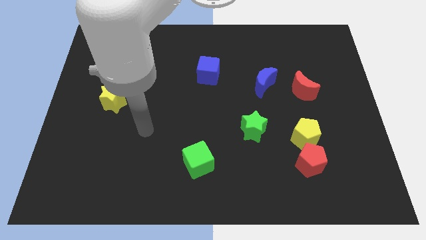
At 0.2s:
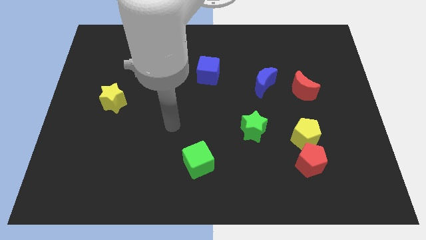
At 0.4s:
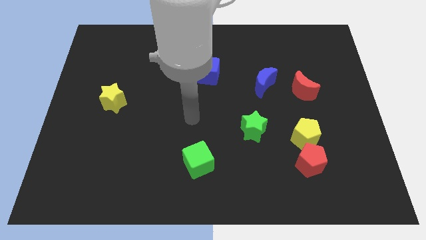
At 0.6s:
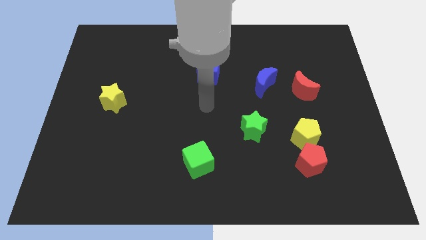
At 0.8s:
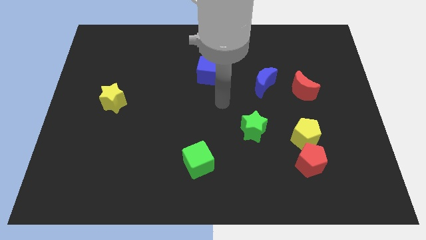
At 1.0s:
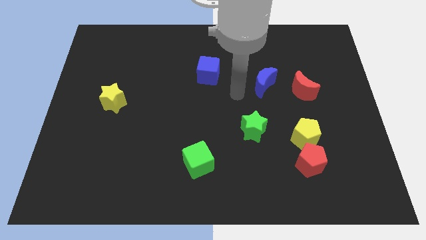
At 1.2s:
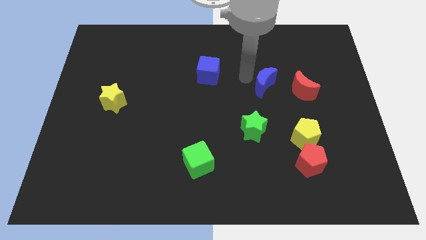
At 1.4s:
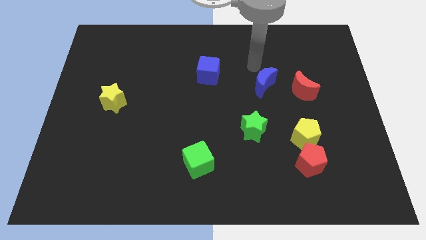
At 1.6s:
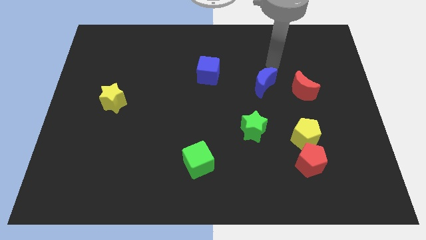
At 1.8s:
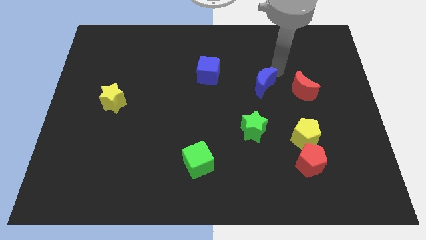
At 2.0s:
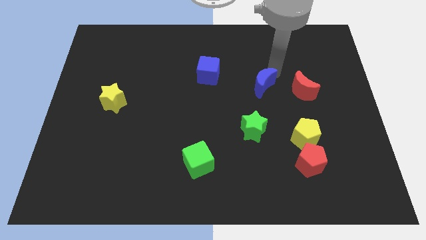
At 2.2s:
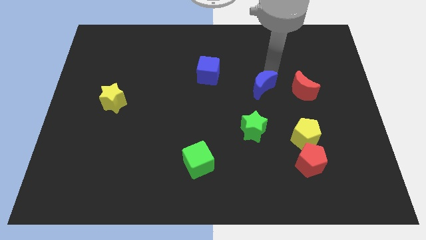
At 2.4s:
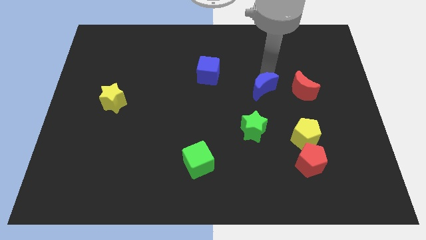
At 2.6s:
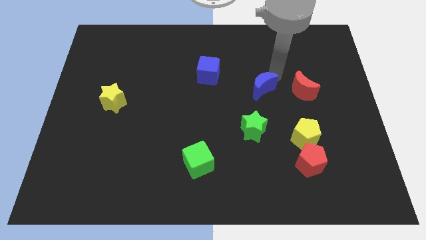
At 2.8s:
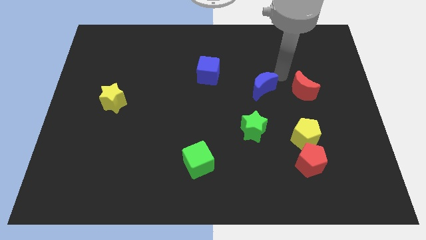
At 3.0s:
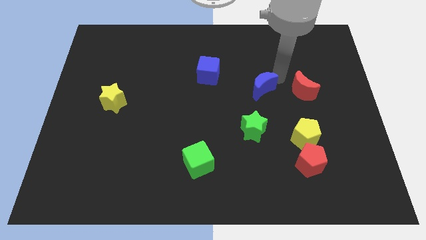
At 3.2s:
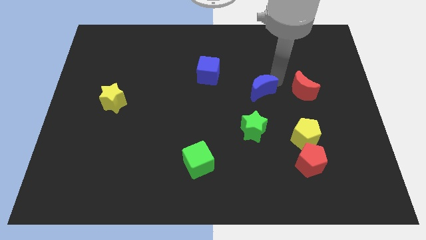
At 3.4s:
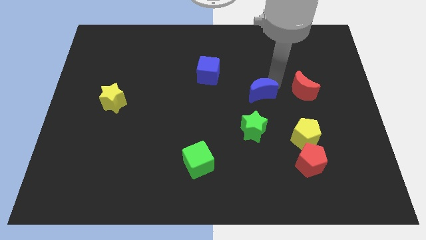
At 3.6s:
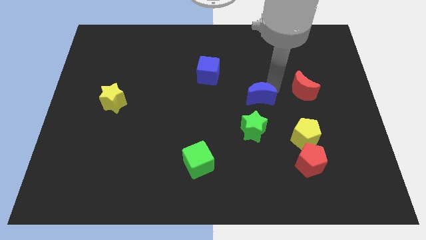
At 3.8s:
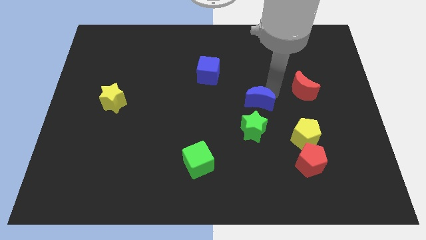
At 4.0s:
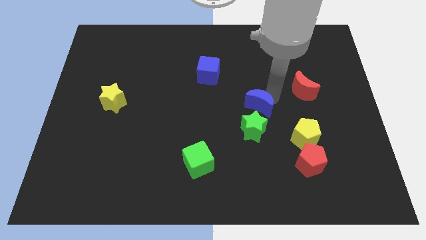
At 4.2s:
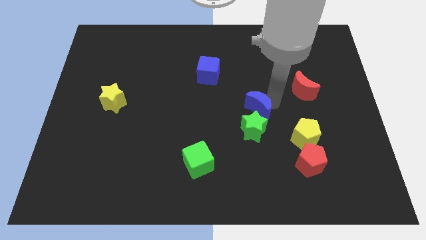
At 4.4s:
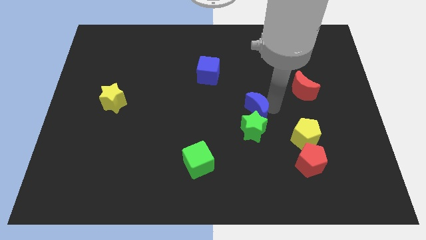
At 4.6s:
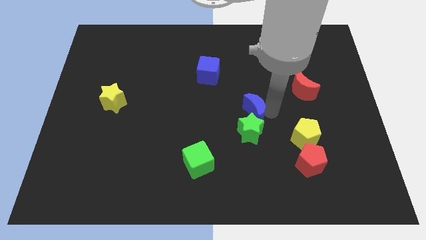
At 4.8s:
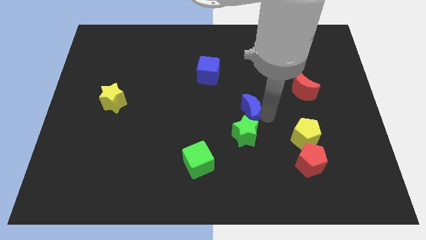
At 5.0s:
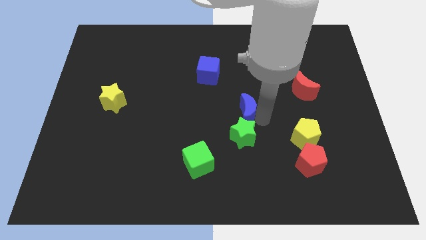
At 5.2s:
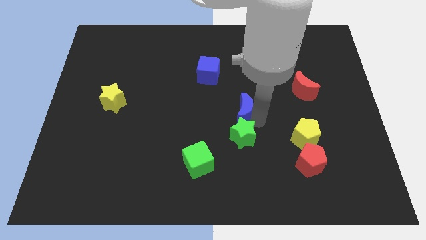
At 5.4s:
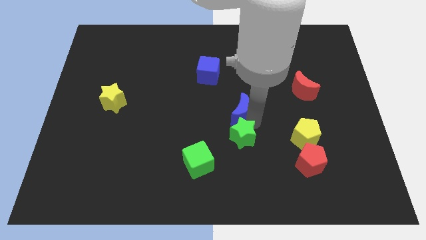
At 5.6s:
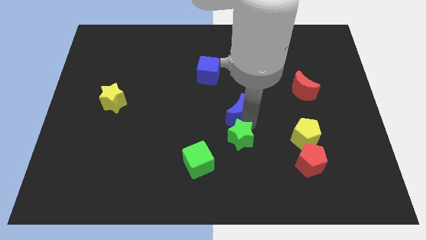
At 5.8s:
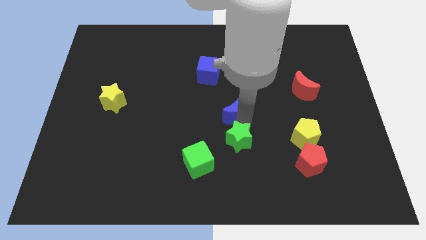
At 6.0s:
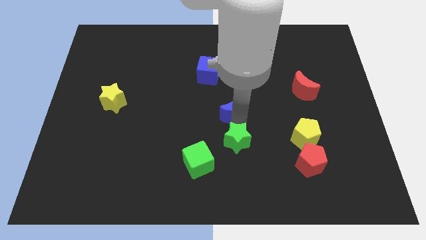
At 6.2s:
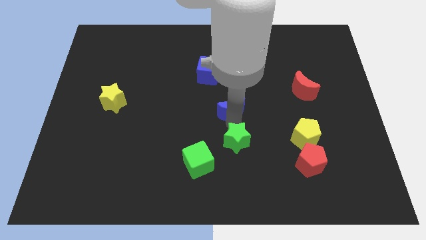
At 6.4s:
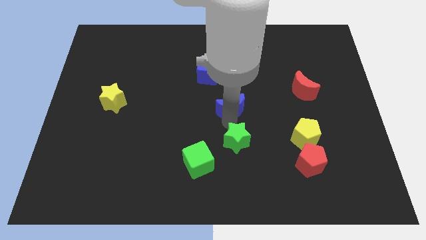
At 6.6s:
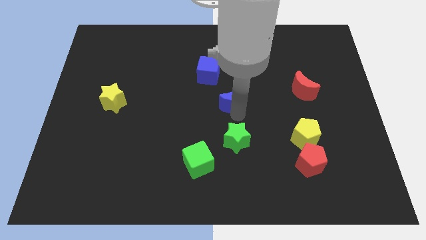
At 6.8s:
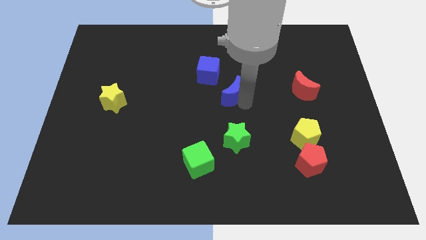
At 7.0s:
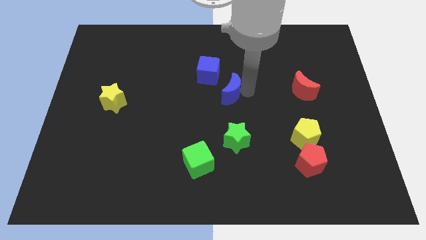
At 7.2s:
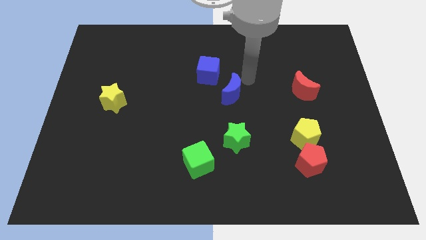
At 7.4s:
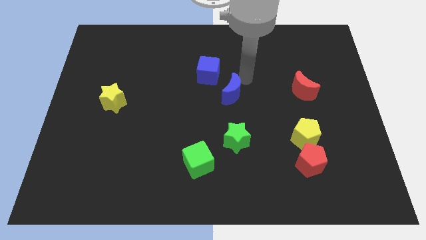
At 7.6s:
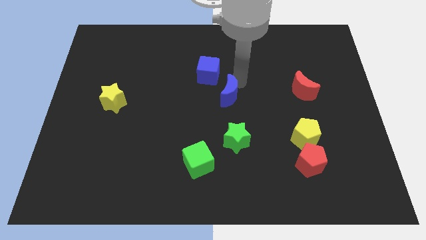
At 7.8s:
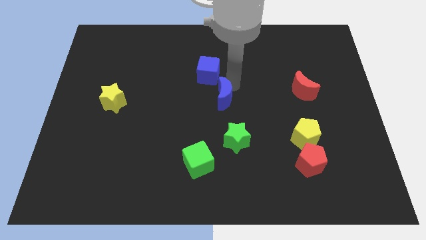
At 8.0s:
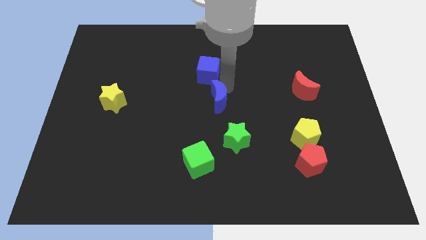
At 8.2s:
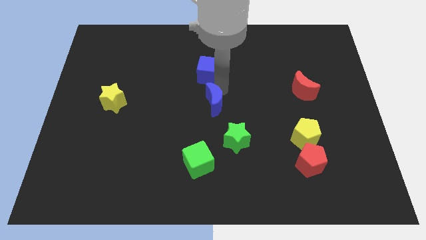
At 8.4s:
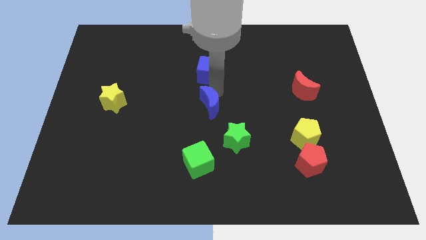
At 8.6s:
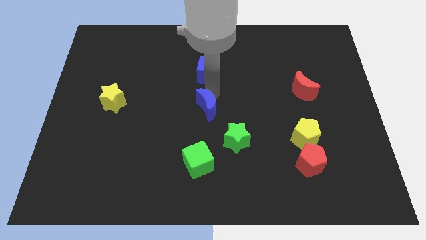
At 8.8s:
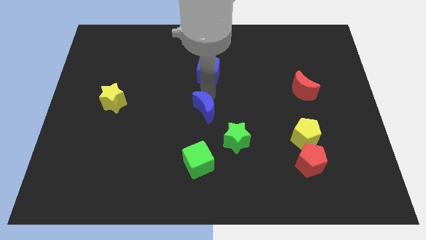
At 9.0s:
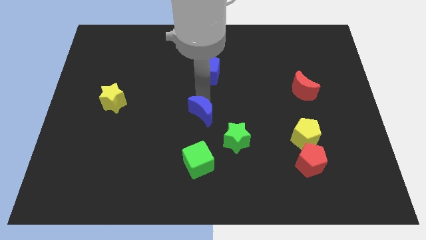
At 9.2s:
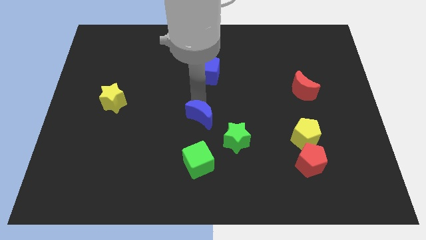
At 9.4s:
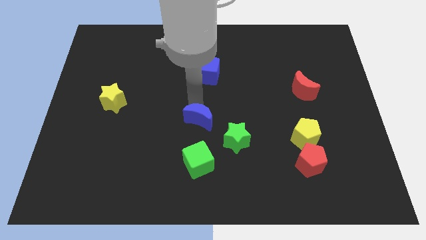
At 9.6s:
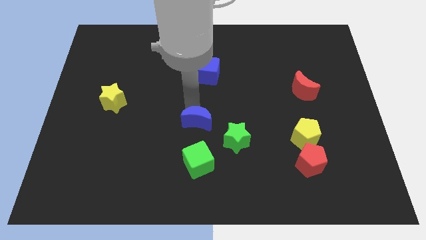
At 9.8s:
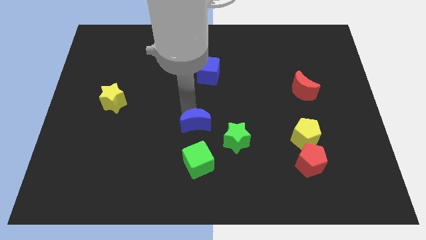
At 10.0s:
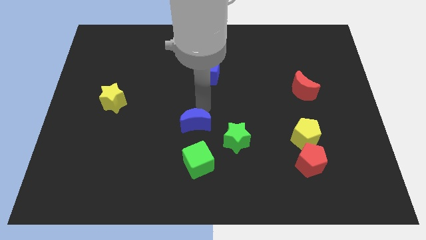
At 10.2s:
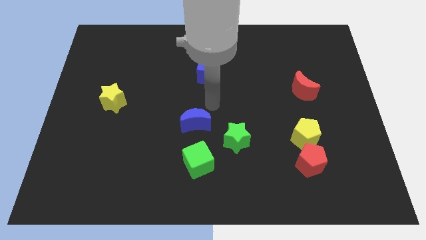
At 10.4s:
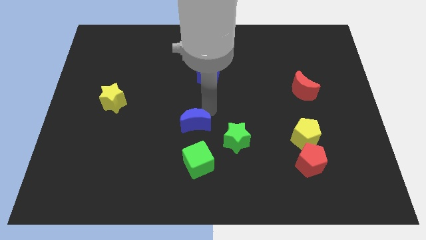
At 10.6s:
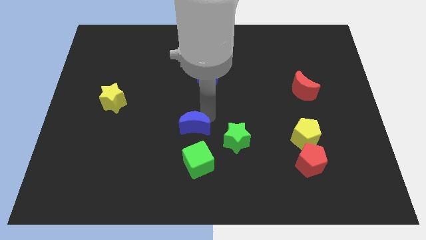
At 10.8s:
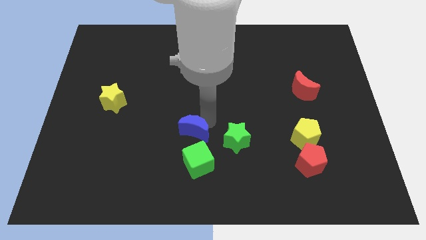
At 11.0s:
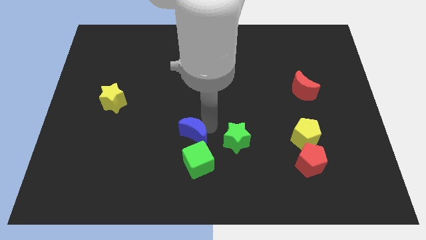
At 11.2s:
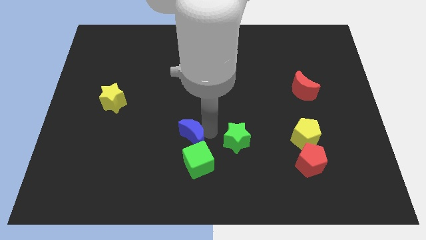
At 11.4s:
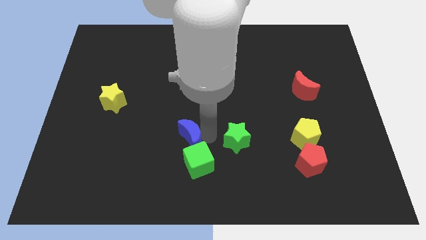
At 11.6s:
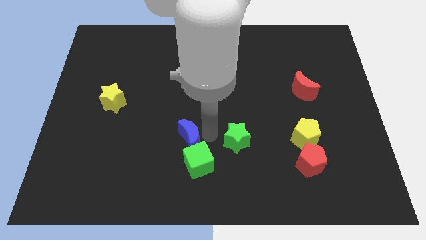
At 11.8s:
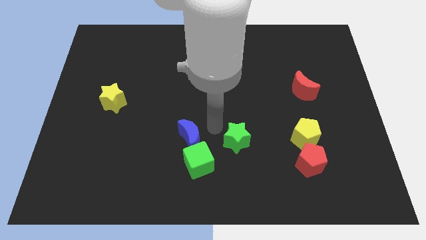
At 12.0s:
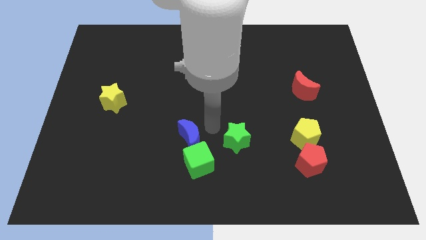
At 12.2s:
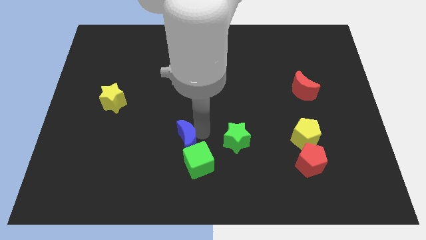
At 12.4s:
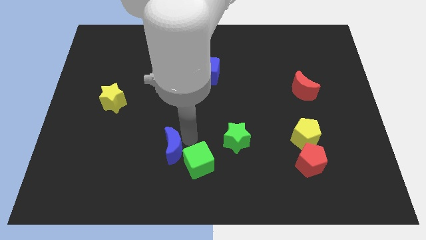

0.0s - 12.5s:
push the blue moon left of the green cube

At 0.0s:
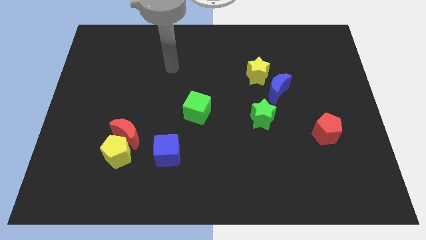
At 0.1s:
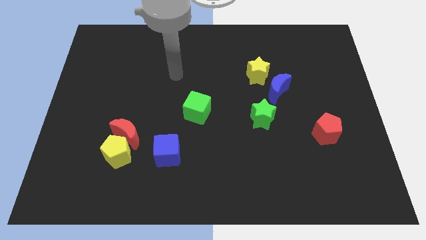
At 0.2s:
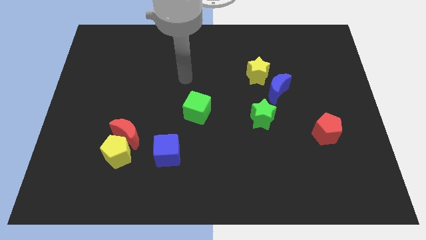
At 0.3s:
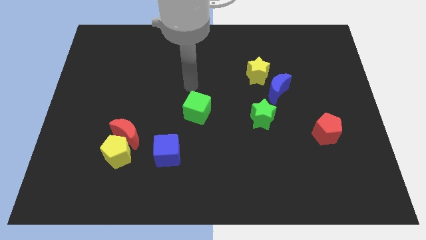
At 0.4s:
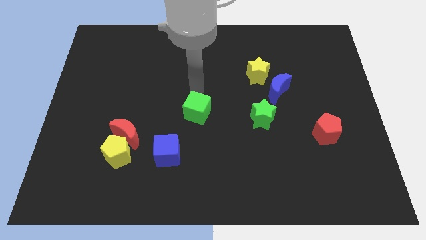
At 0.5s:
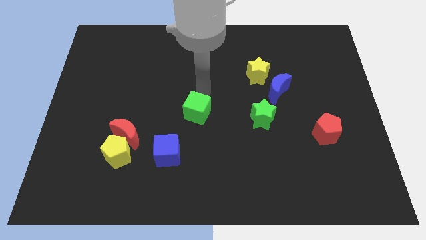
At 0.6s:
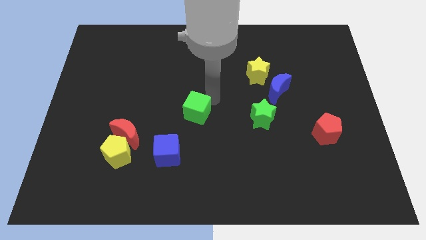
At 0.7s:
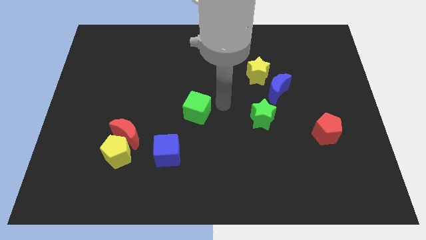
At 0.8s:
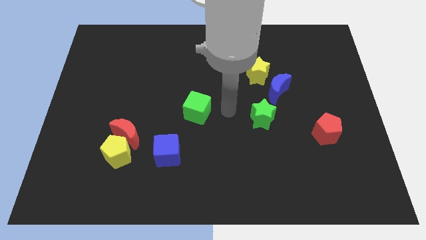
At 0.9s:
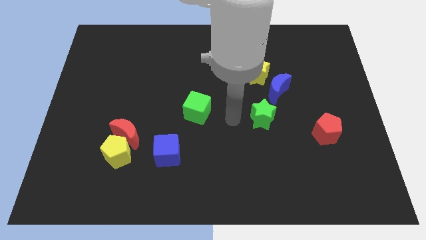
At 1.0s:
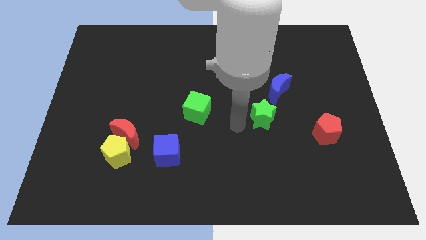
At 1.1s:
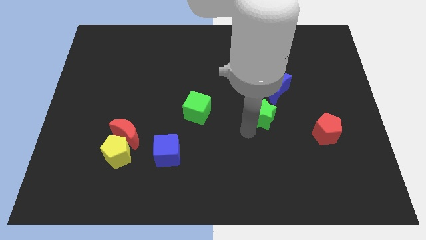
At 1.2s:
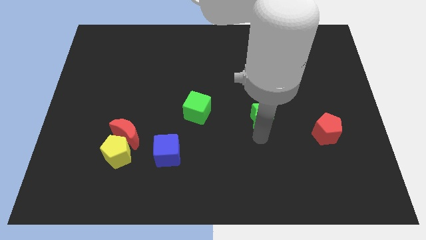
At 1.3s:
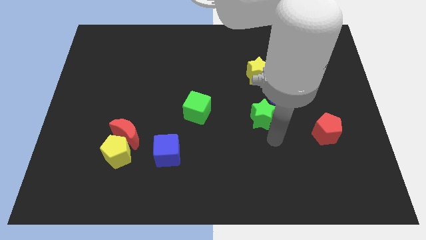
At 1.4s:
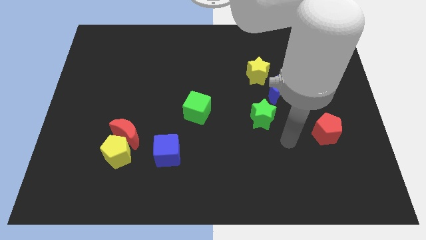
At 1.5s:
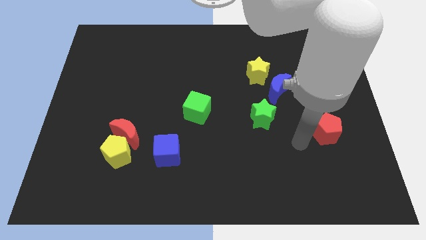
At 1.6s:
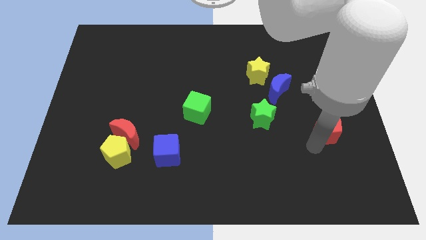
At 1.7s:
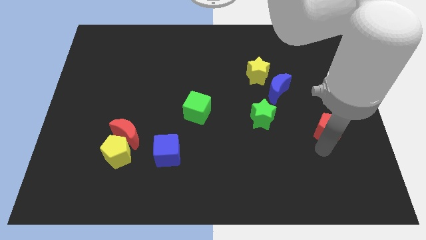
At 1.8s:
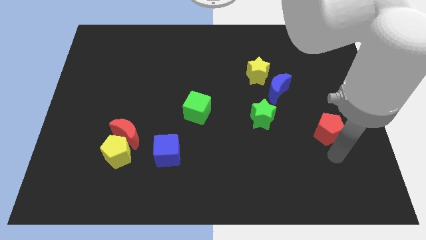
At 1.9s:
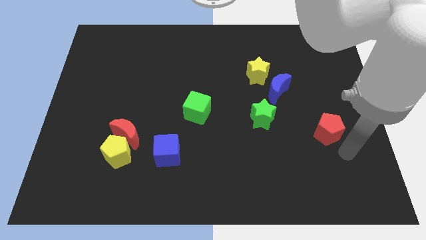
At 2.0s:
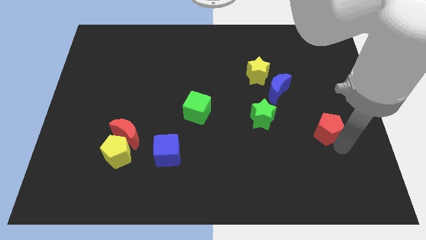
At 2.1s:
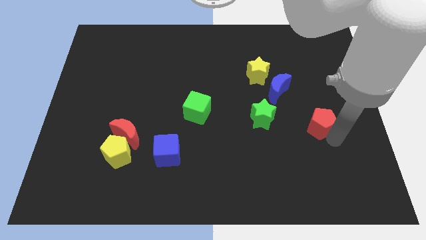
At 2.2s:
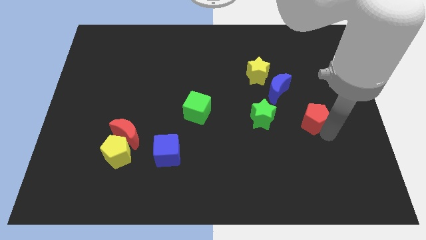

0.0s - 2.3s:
put the red pentagon to the bottom right side of the blue moon
